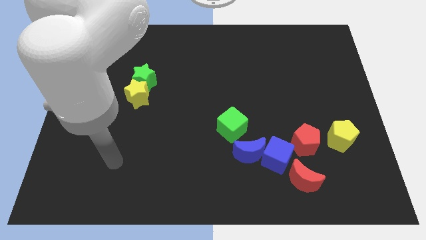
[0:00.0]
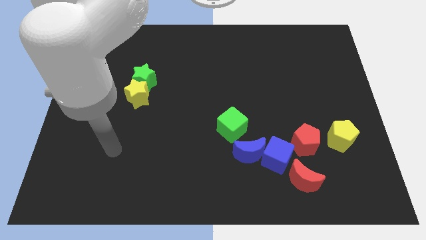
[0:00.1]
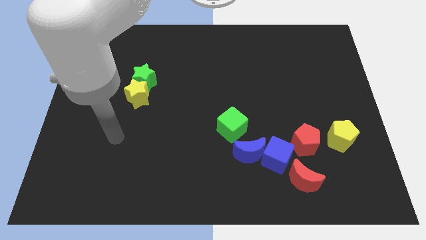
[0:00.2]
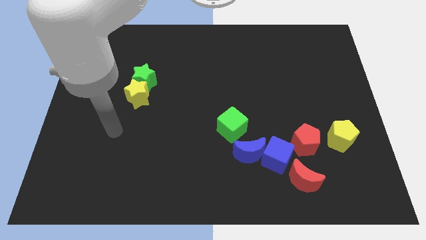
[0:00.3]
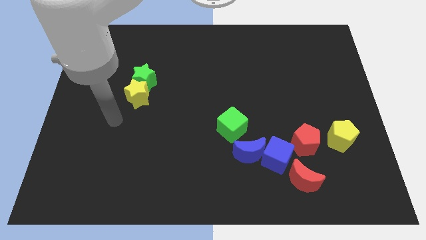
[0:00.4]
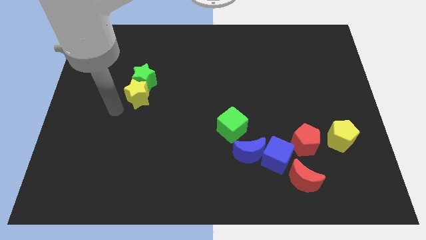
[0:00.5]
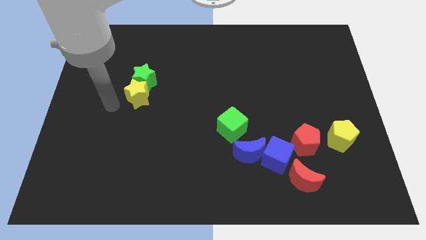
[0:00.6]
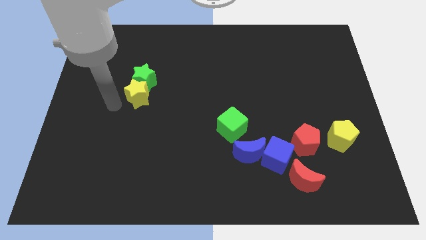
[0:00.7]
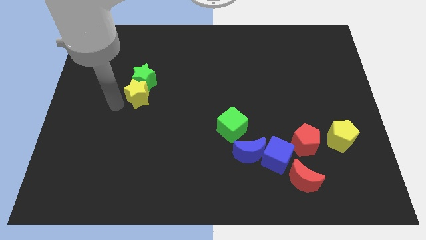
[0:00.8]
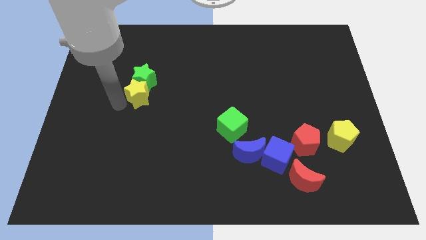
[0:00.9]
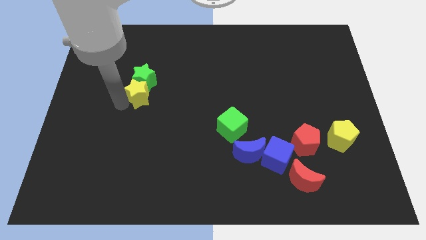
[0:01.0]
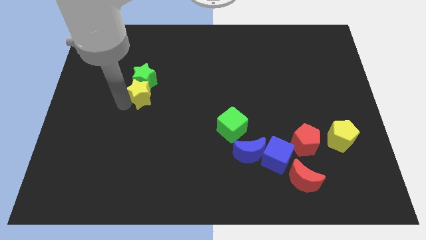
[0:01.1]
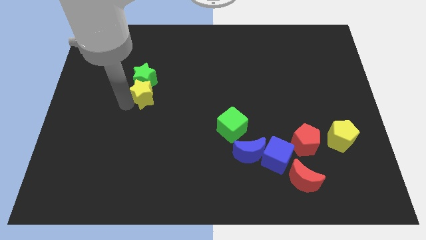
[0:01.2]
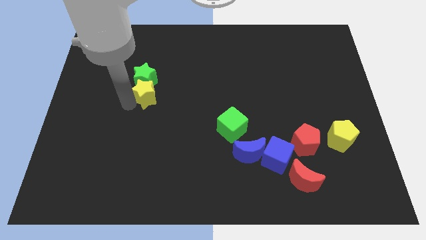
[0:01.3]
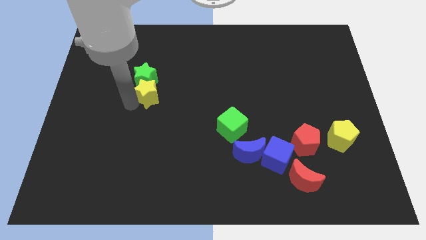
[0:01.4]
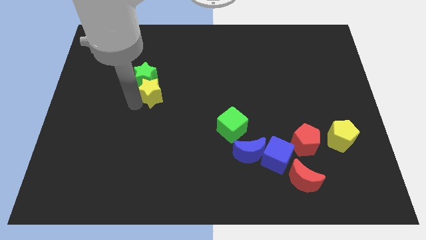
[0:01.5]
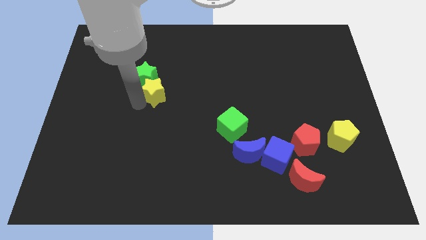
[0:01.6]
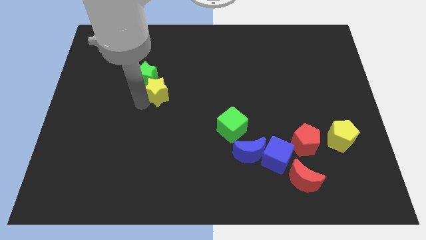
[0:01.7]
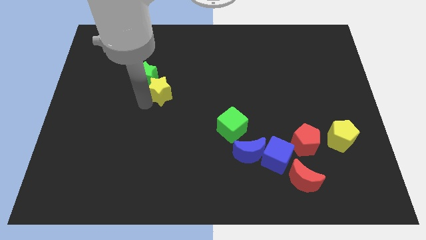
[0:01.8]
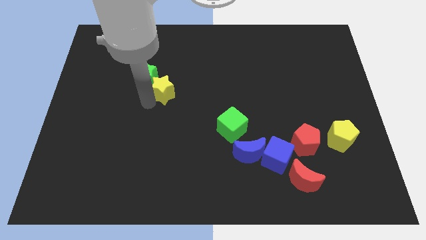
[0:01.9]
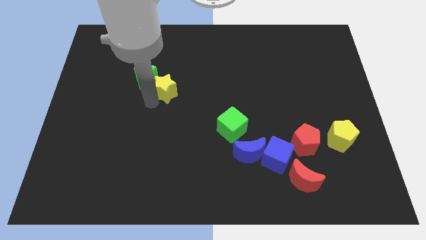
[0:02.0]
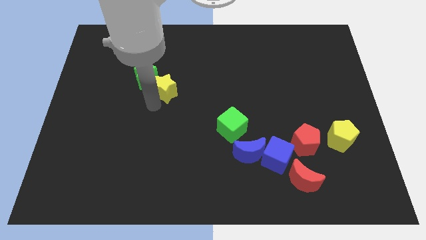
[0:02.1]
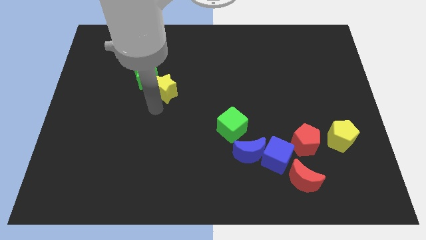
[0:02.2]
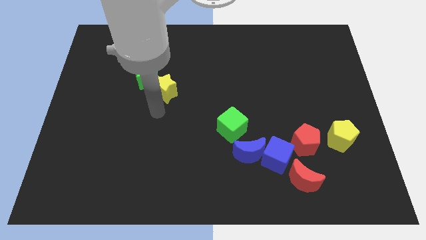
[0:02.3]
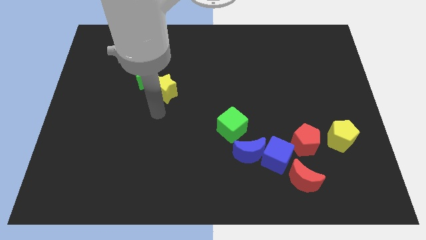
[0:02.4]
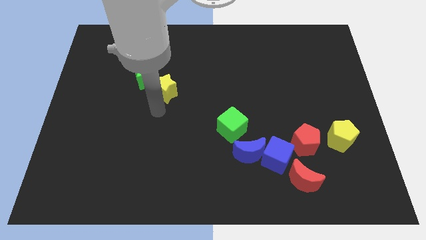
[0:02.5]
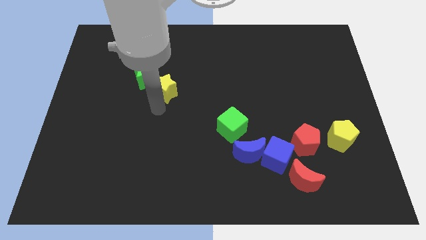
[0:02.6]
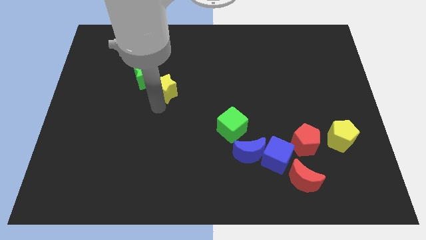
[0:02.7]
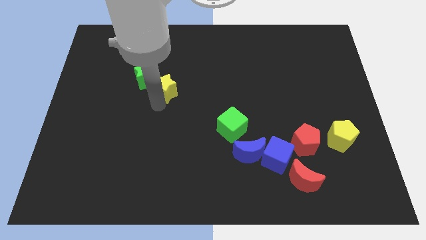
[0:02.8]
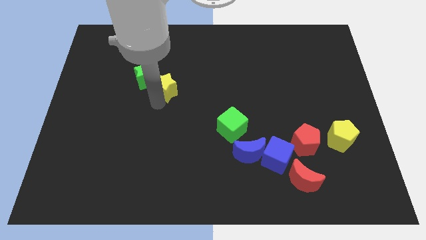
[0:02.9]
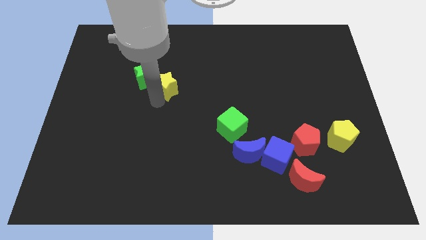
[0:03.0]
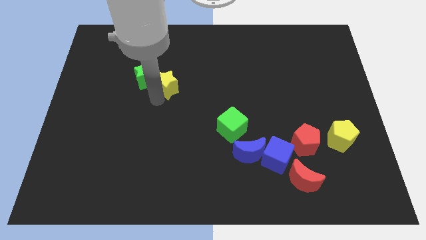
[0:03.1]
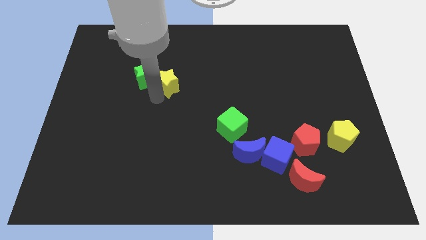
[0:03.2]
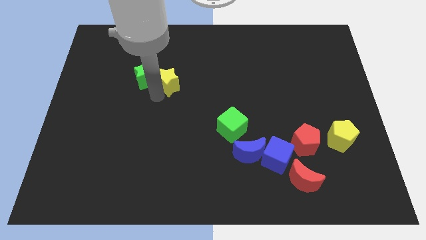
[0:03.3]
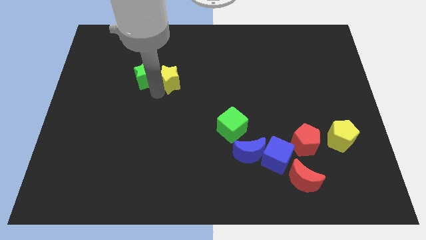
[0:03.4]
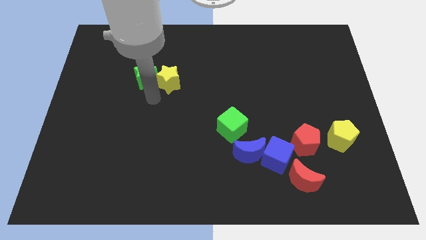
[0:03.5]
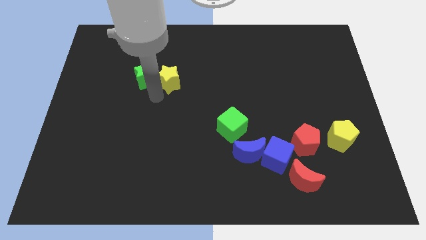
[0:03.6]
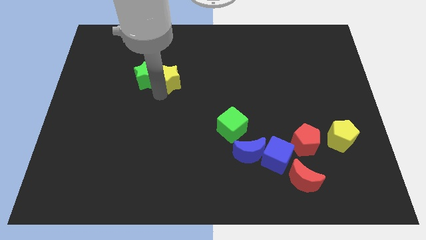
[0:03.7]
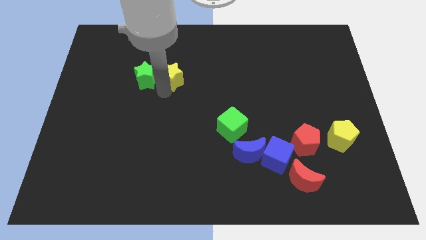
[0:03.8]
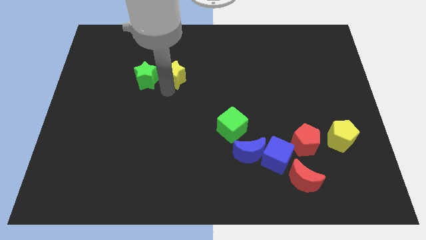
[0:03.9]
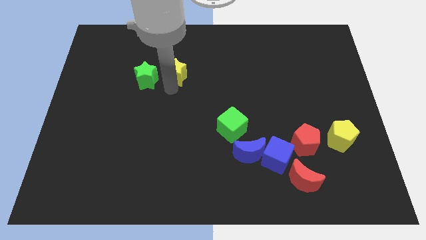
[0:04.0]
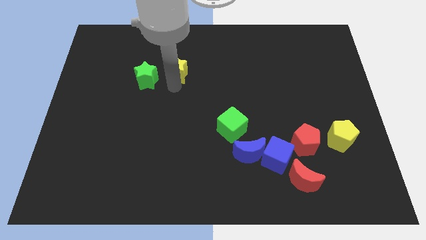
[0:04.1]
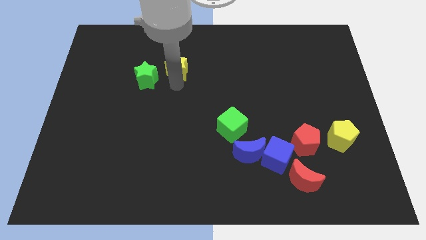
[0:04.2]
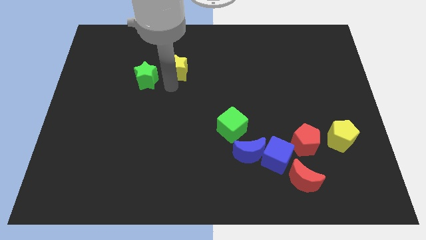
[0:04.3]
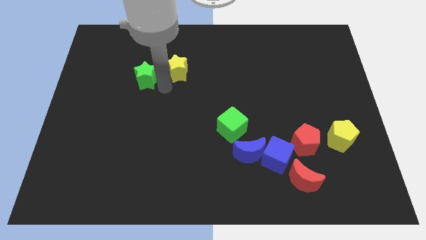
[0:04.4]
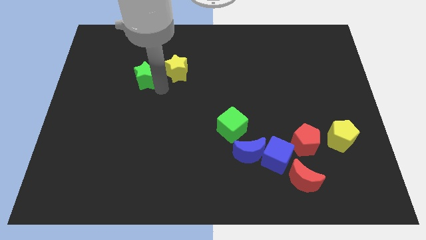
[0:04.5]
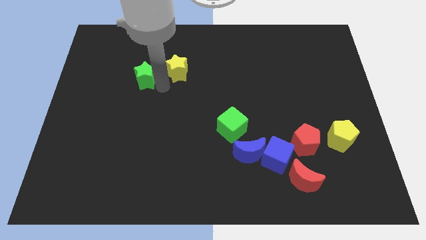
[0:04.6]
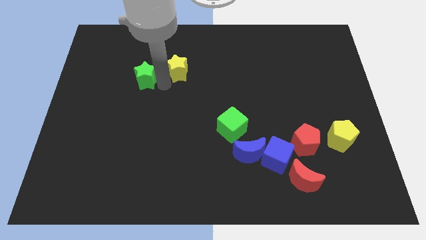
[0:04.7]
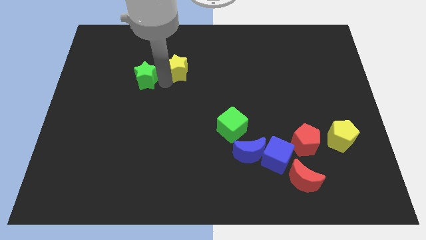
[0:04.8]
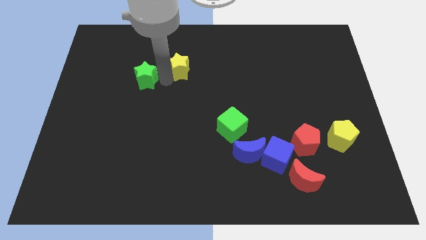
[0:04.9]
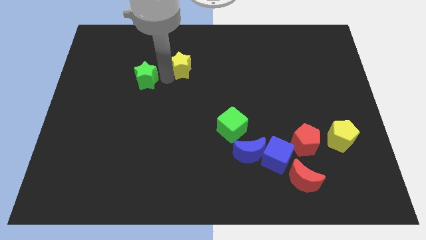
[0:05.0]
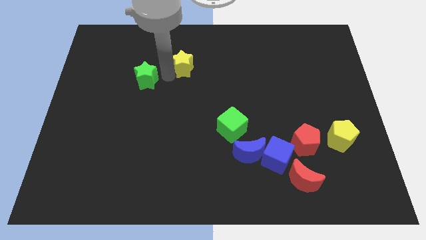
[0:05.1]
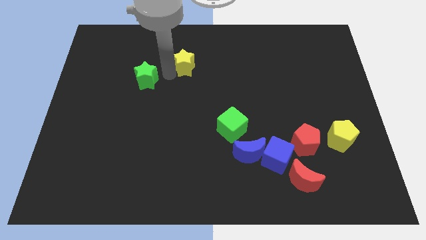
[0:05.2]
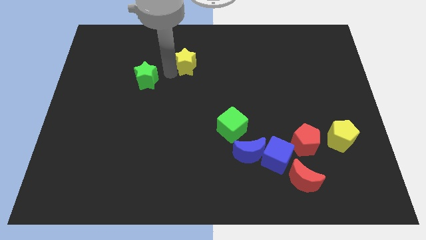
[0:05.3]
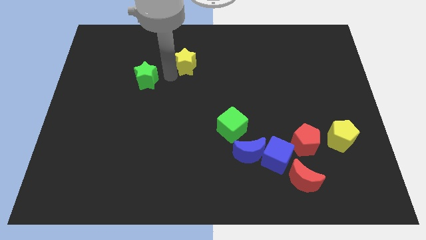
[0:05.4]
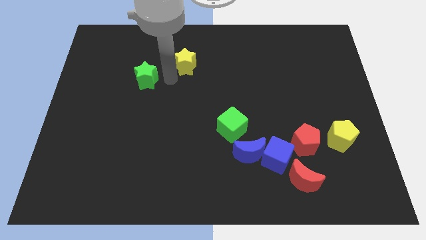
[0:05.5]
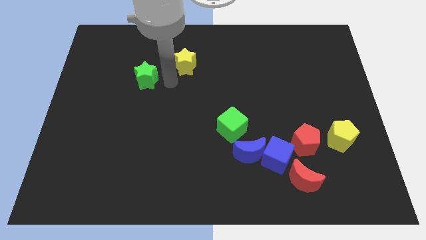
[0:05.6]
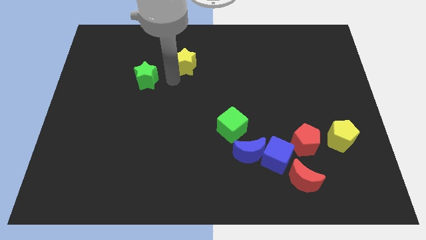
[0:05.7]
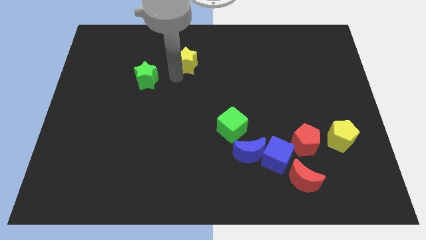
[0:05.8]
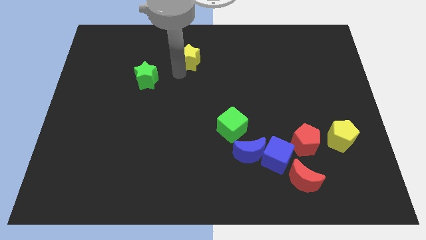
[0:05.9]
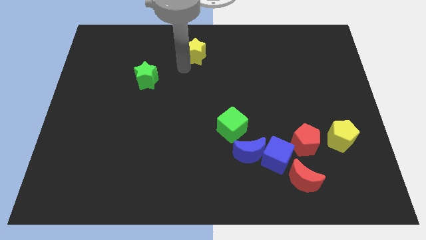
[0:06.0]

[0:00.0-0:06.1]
slide the yellow star to the top side
